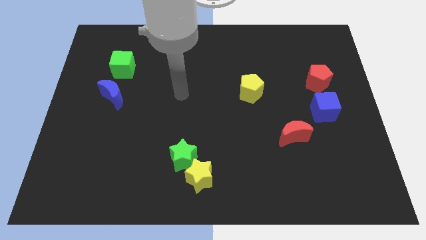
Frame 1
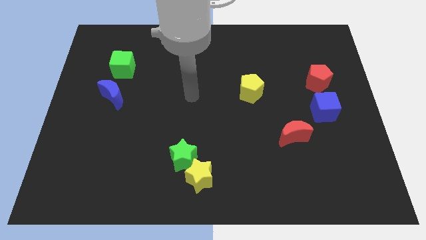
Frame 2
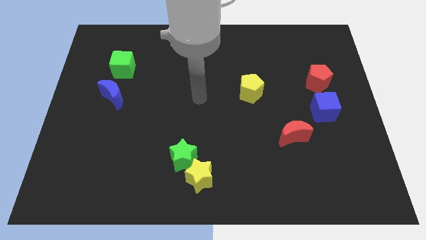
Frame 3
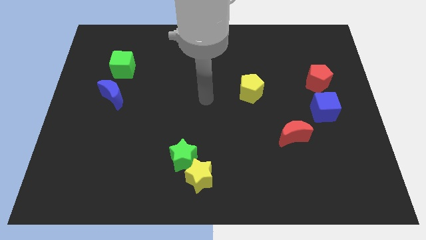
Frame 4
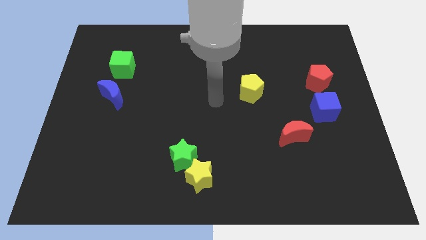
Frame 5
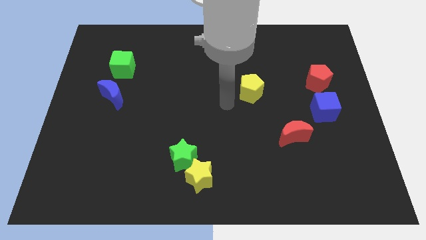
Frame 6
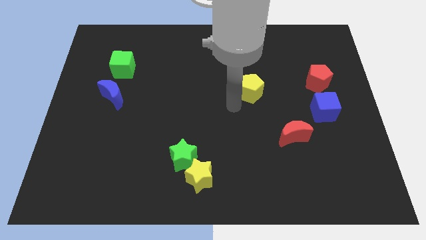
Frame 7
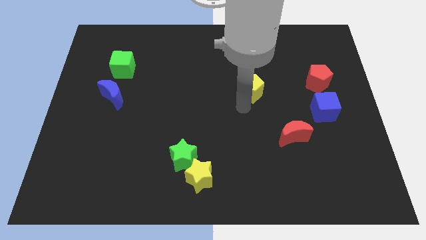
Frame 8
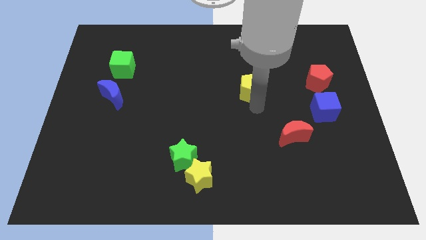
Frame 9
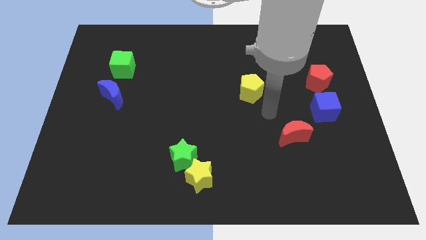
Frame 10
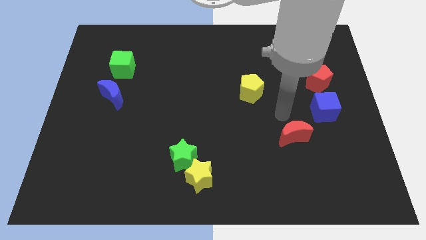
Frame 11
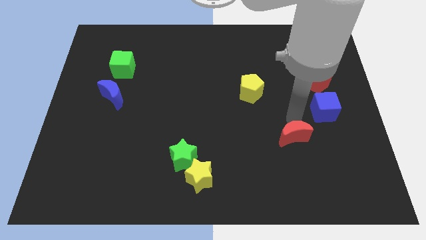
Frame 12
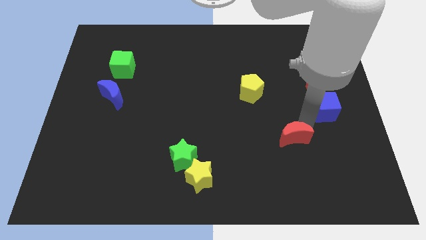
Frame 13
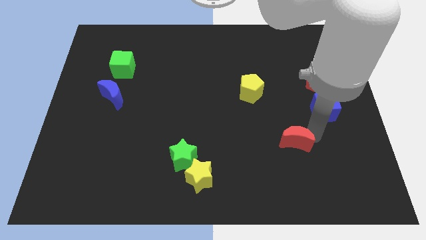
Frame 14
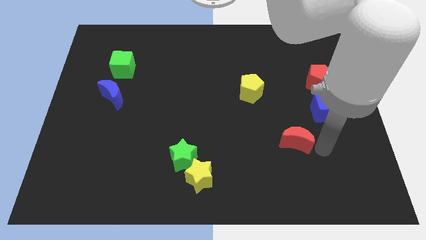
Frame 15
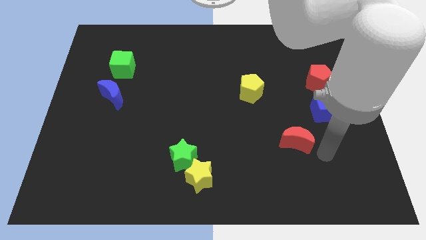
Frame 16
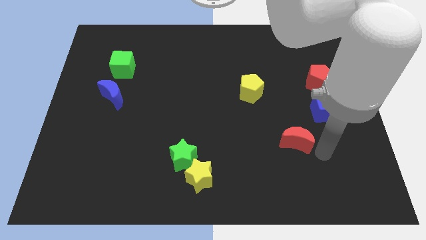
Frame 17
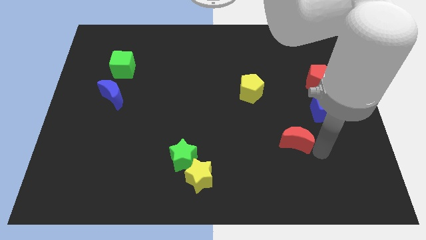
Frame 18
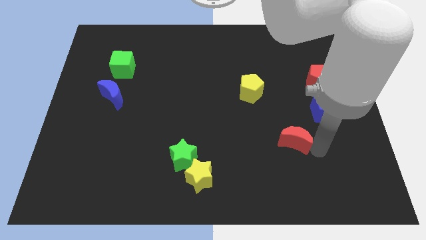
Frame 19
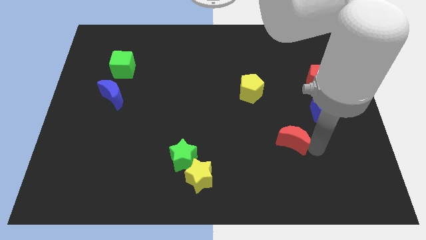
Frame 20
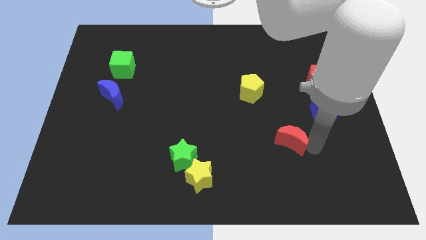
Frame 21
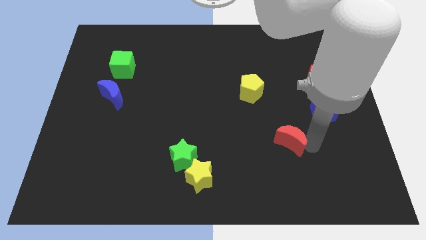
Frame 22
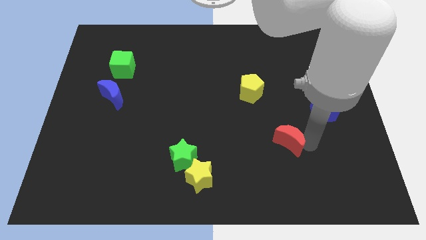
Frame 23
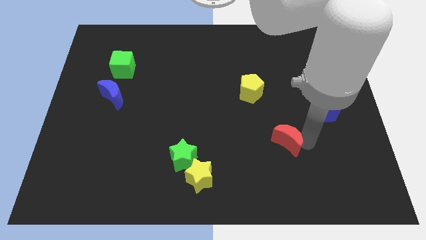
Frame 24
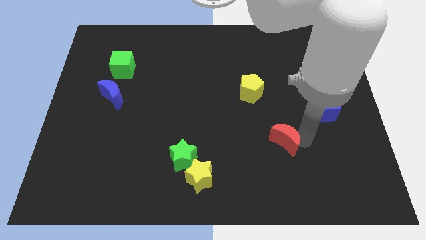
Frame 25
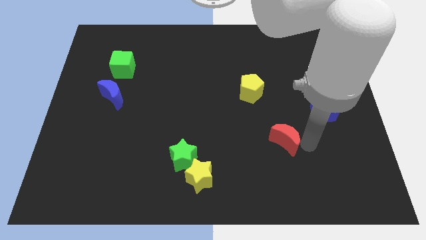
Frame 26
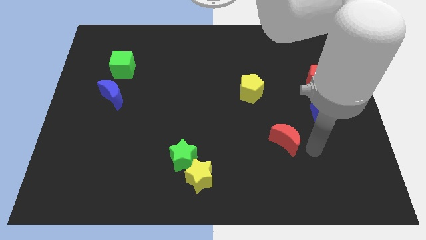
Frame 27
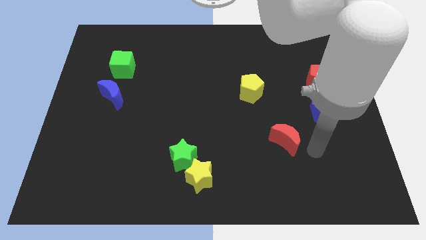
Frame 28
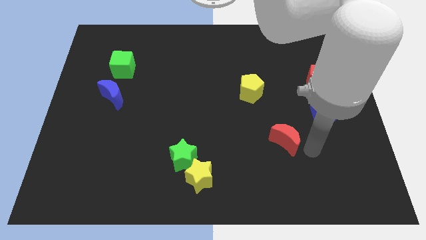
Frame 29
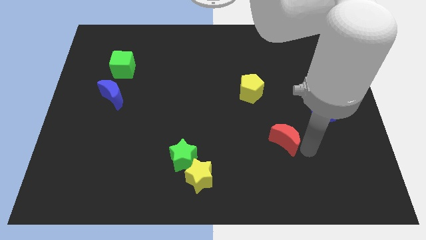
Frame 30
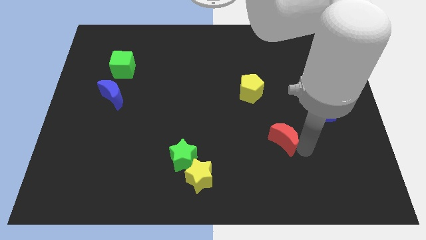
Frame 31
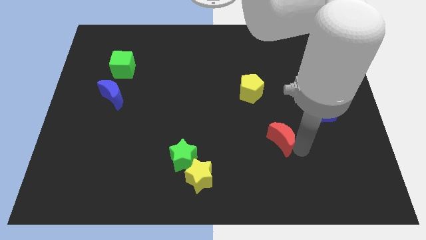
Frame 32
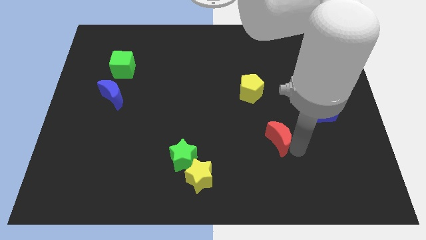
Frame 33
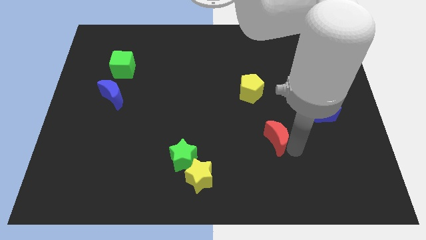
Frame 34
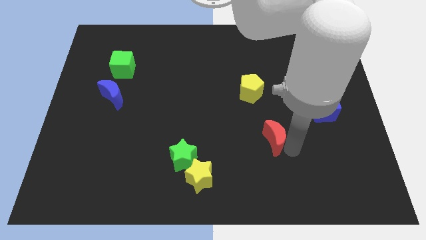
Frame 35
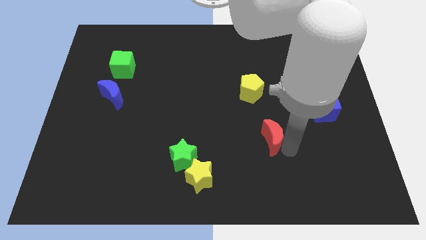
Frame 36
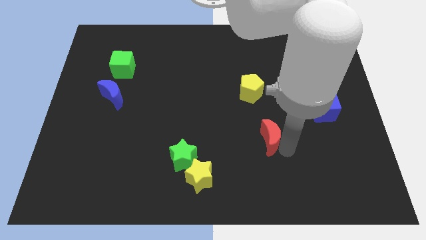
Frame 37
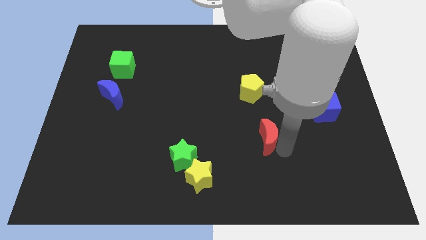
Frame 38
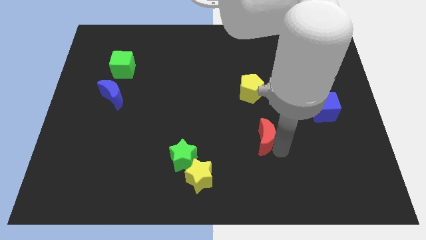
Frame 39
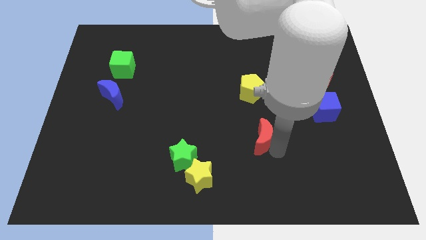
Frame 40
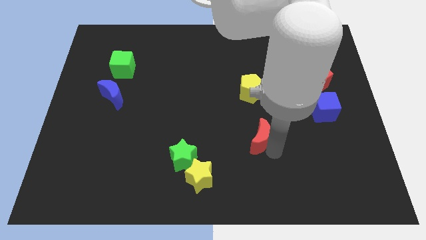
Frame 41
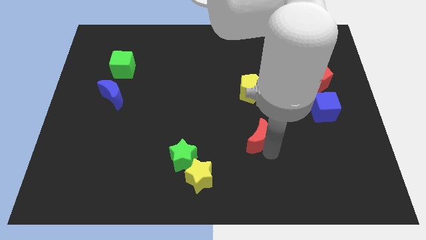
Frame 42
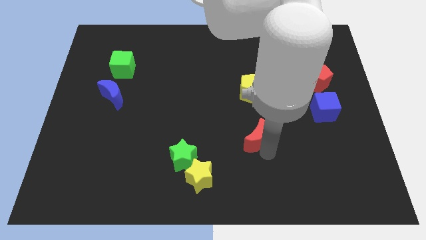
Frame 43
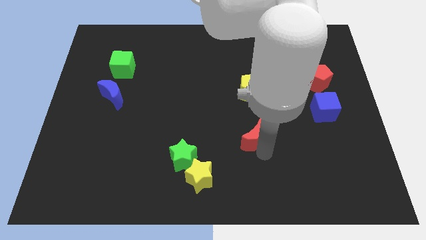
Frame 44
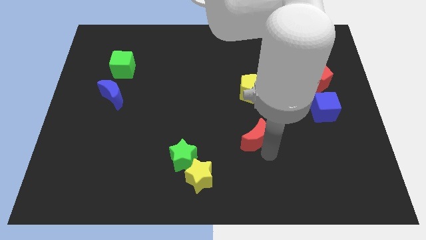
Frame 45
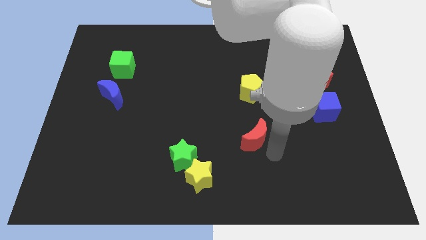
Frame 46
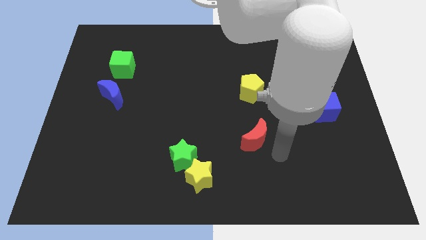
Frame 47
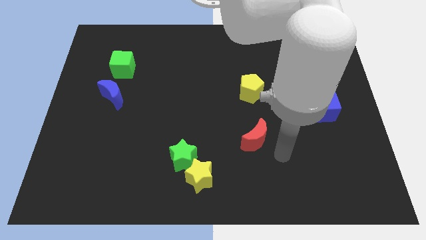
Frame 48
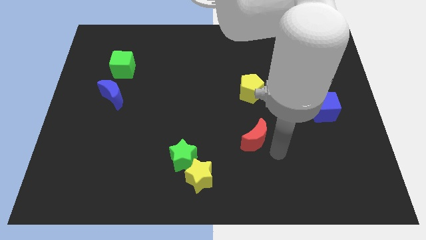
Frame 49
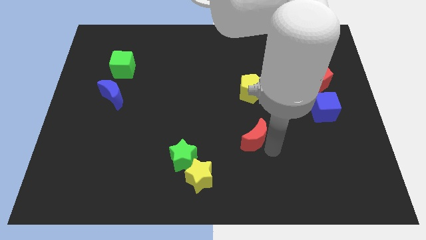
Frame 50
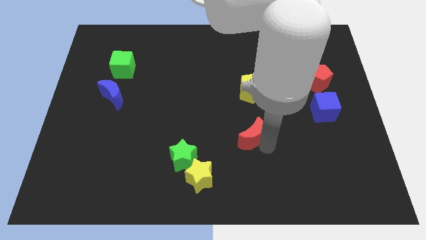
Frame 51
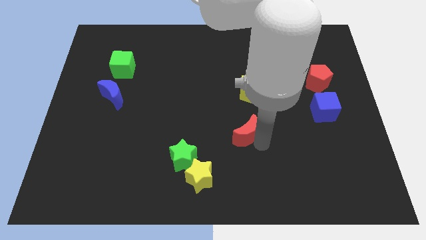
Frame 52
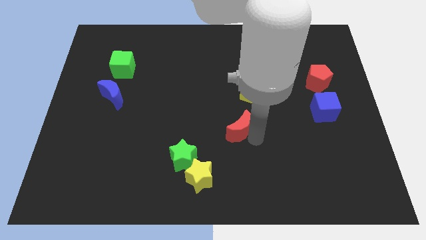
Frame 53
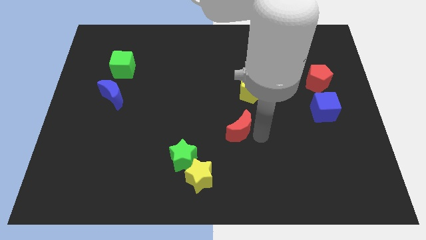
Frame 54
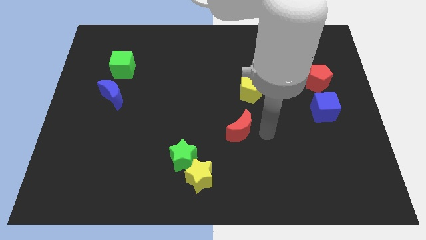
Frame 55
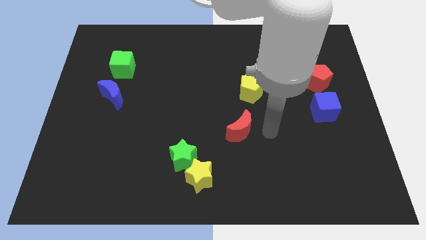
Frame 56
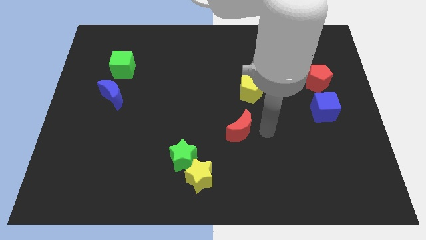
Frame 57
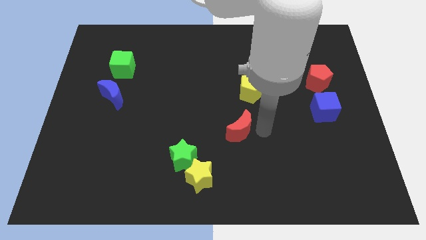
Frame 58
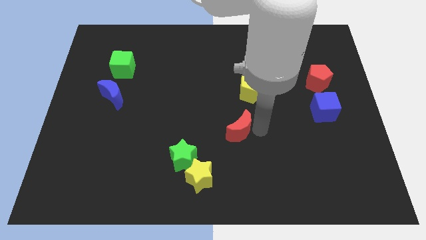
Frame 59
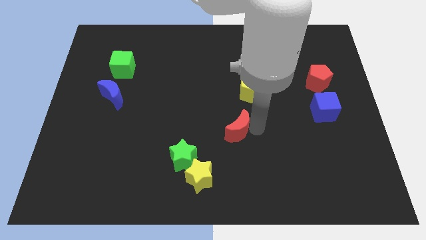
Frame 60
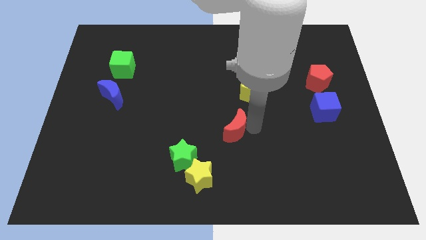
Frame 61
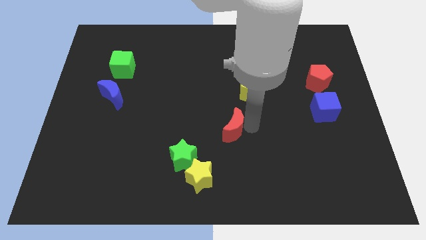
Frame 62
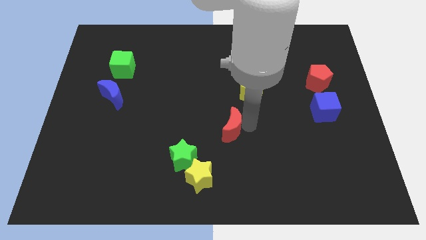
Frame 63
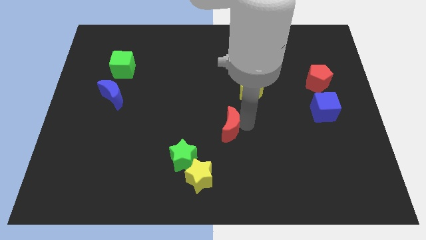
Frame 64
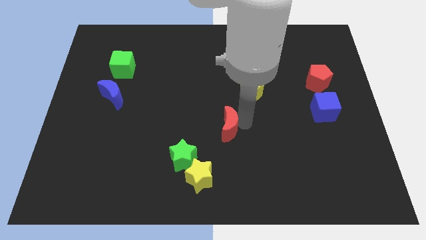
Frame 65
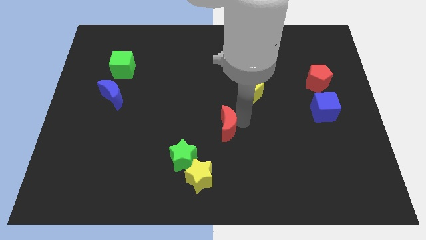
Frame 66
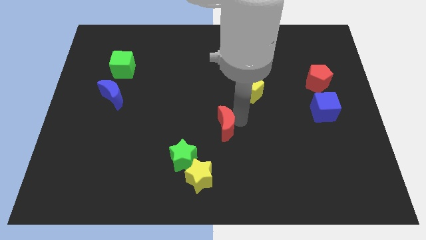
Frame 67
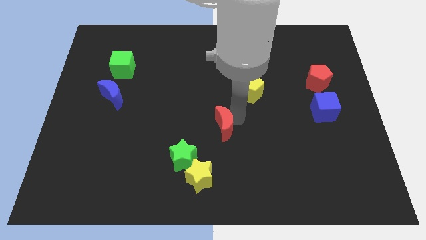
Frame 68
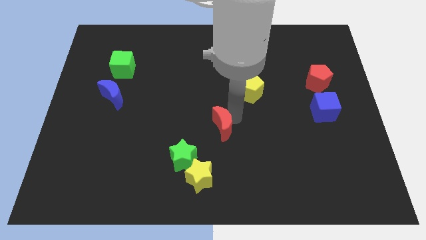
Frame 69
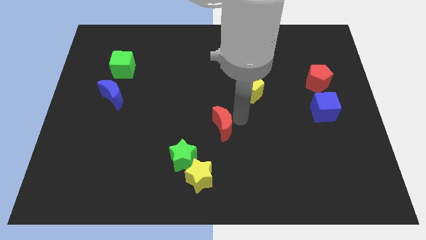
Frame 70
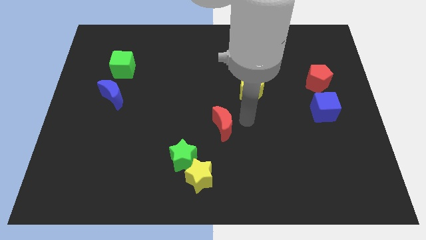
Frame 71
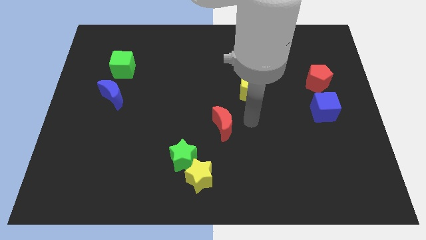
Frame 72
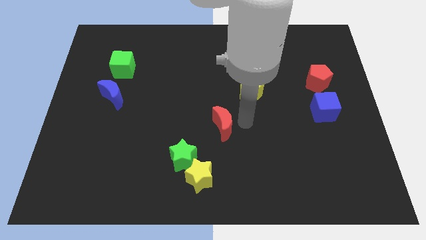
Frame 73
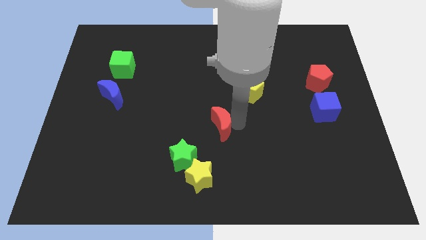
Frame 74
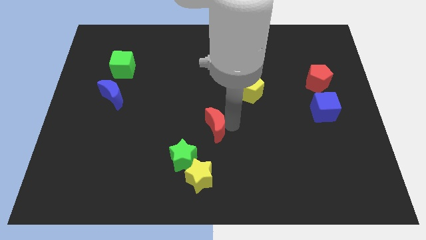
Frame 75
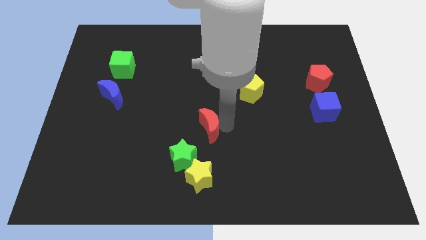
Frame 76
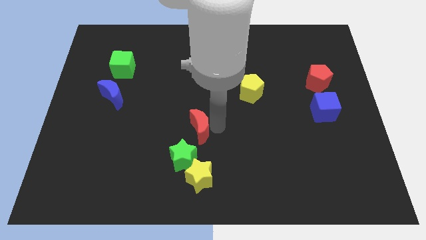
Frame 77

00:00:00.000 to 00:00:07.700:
slide the red moon to the left

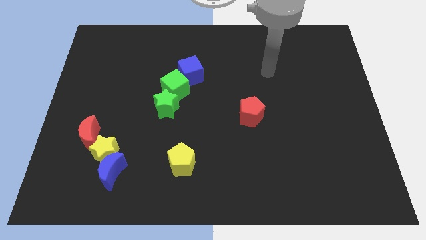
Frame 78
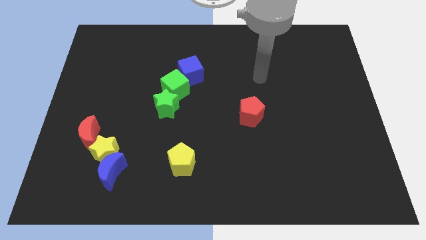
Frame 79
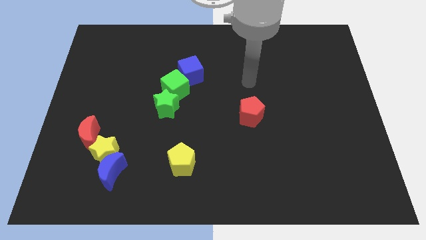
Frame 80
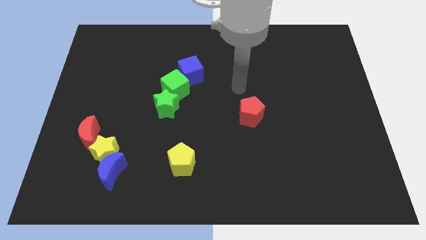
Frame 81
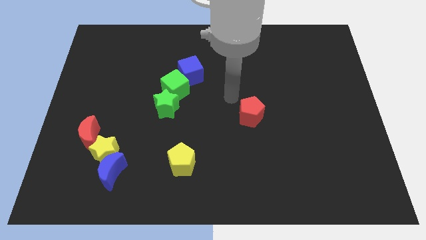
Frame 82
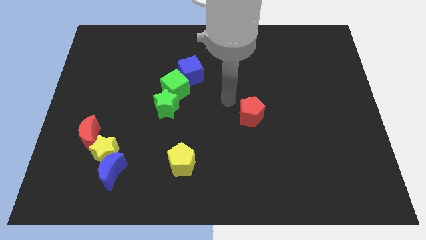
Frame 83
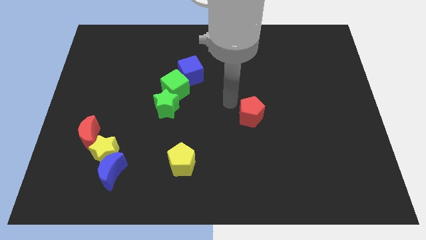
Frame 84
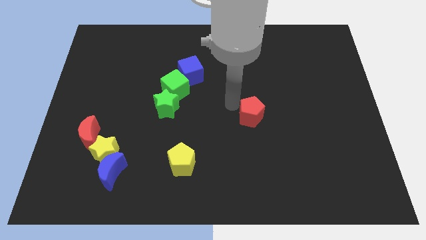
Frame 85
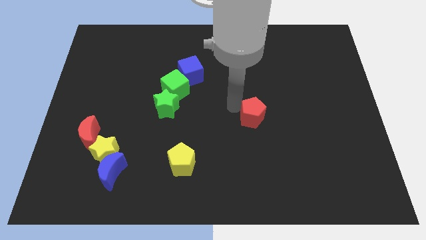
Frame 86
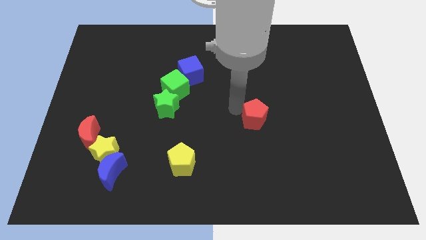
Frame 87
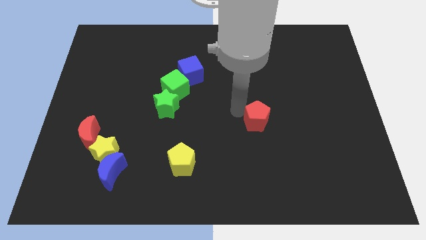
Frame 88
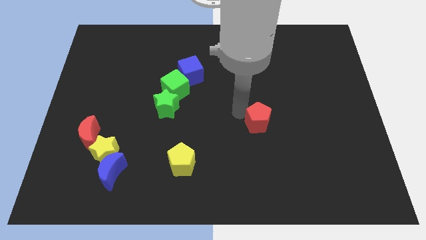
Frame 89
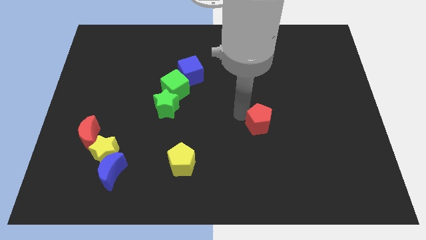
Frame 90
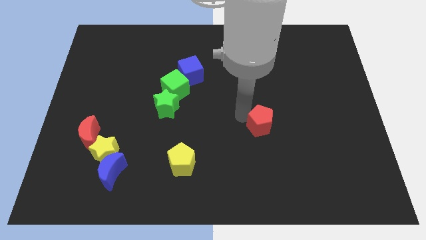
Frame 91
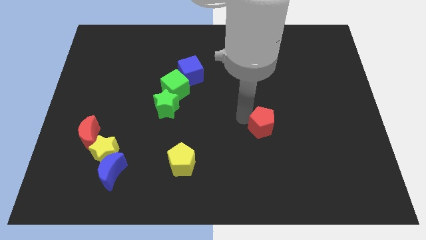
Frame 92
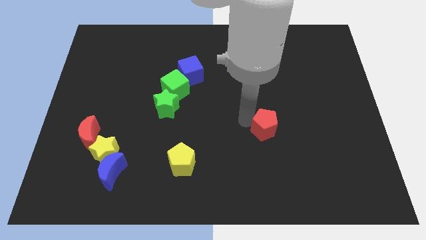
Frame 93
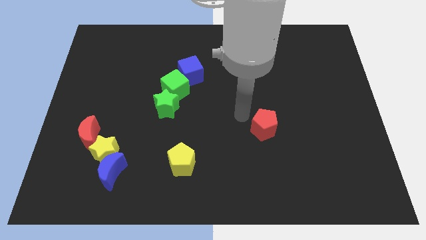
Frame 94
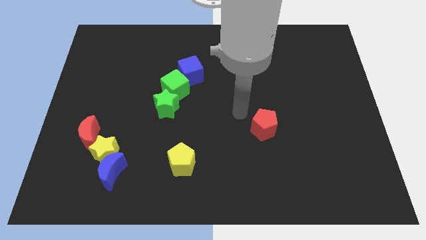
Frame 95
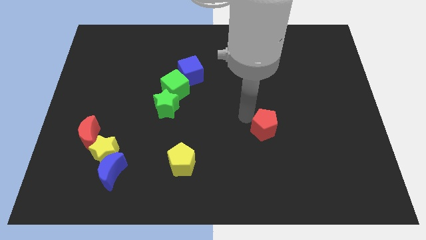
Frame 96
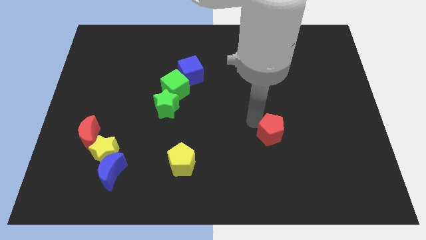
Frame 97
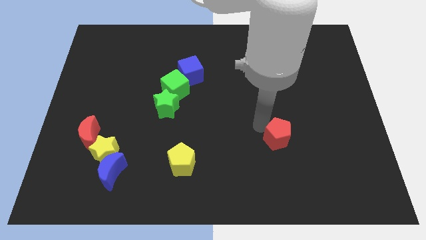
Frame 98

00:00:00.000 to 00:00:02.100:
slightly slide the red pentagon diagonally down and to the right
